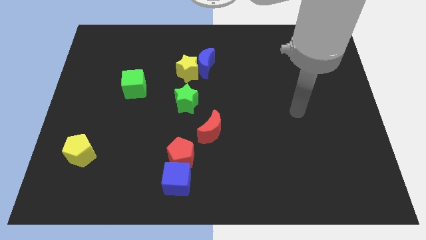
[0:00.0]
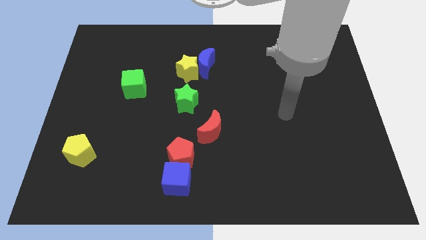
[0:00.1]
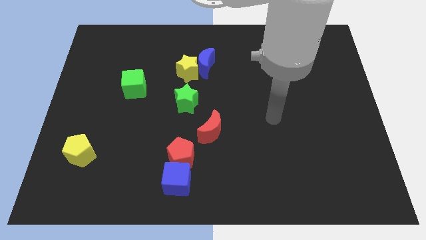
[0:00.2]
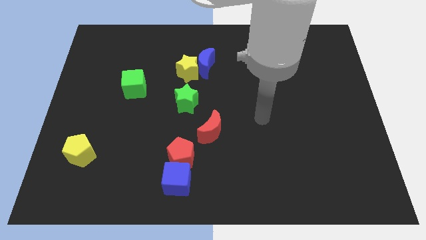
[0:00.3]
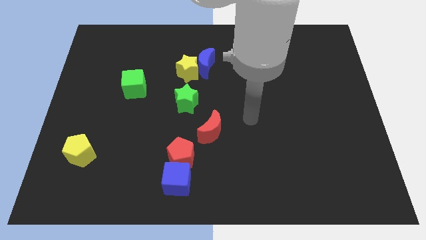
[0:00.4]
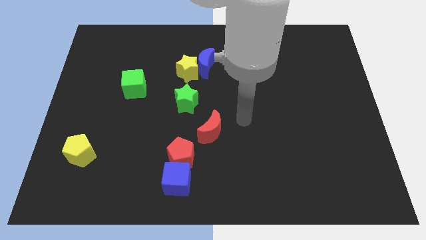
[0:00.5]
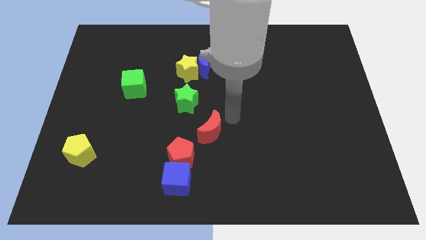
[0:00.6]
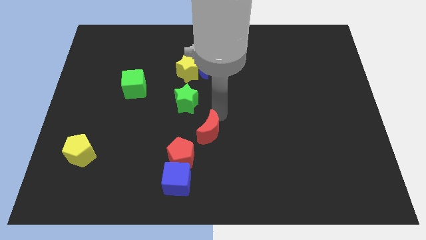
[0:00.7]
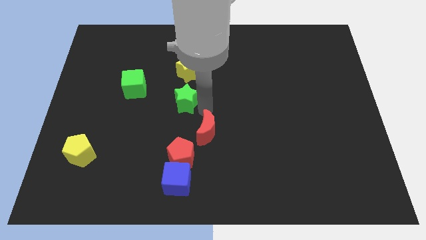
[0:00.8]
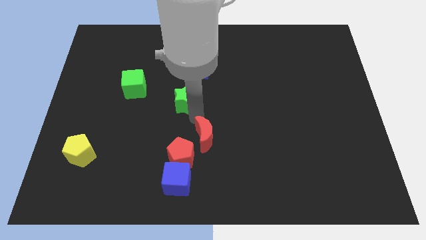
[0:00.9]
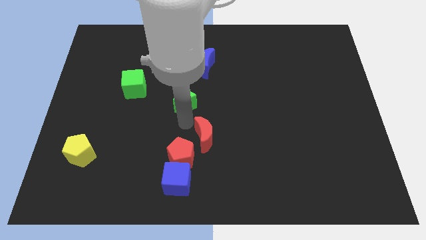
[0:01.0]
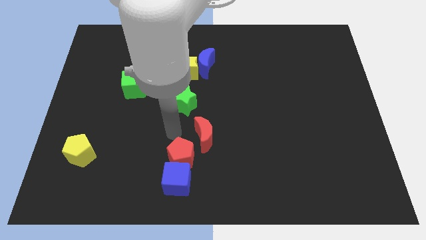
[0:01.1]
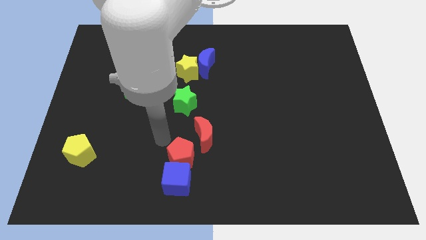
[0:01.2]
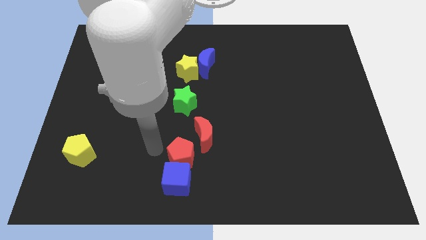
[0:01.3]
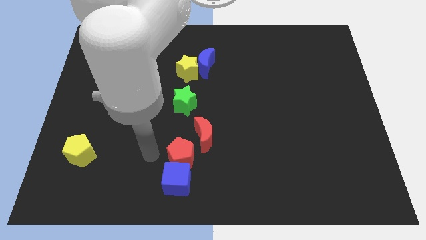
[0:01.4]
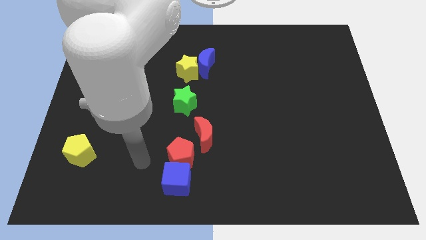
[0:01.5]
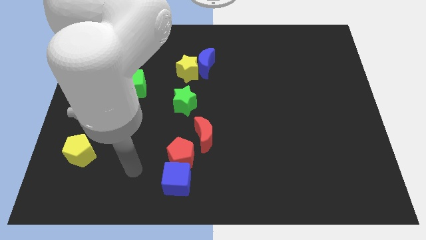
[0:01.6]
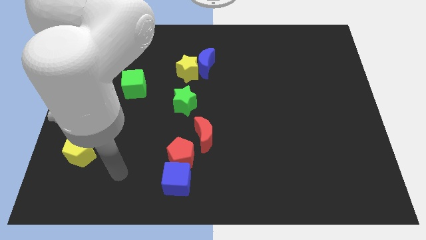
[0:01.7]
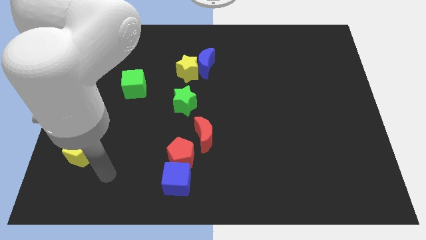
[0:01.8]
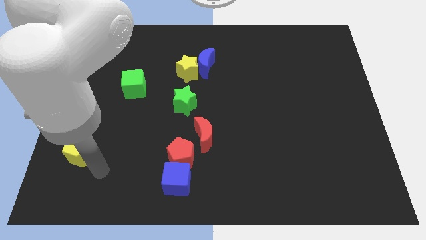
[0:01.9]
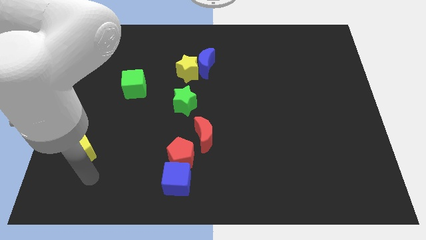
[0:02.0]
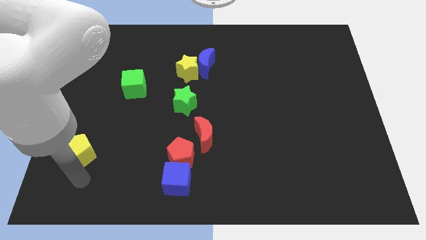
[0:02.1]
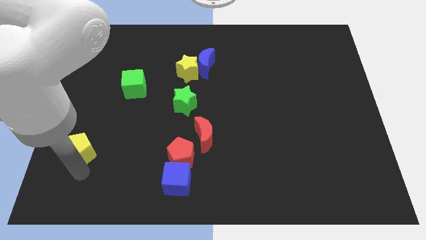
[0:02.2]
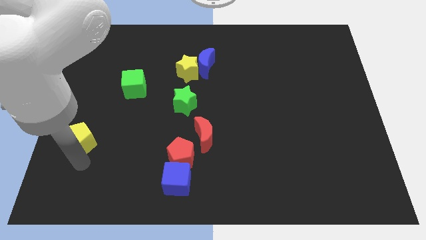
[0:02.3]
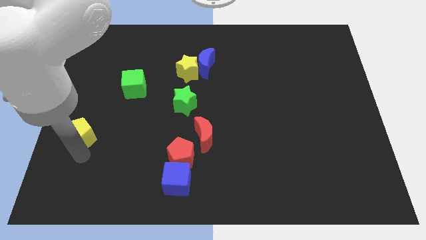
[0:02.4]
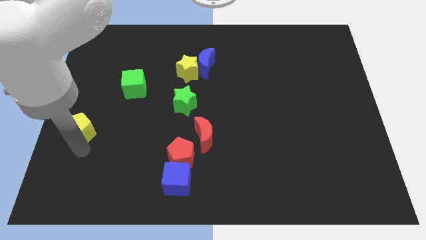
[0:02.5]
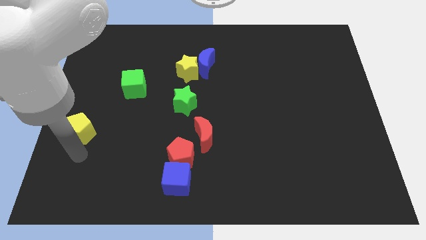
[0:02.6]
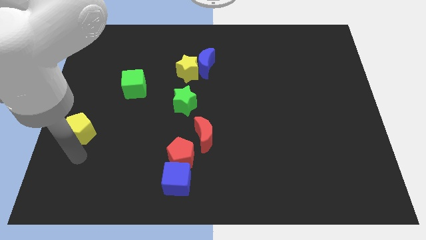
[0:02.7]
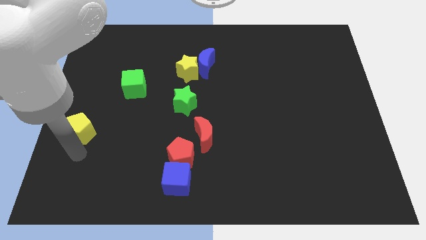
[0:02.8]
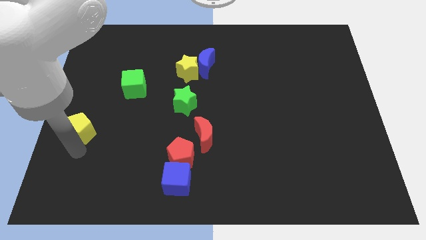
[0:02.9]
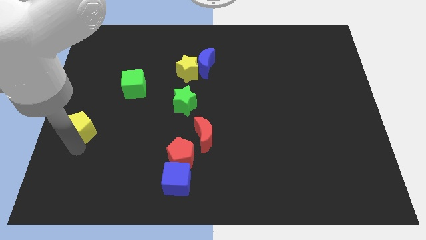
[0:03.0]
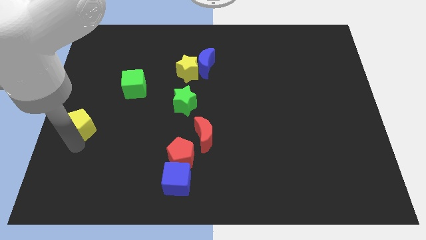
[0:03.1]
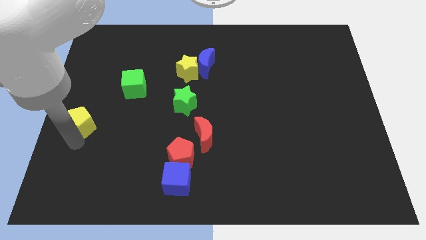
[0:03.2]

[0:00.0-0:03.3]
slide the yellow pentagon a bit up

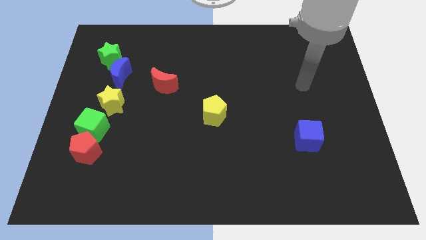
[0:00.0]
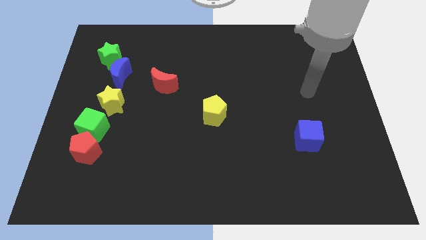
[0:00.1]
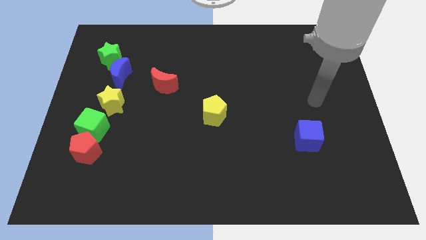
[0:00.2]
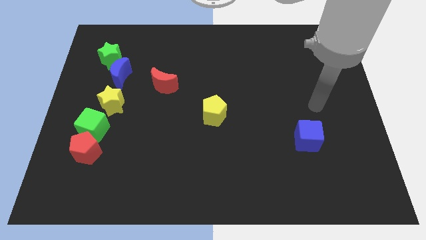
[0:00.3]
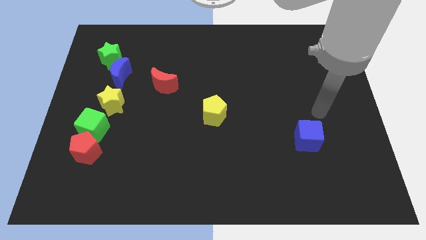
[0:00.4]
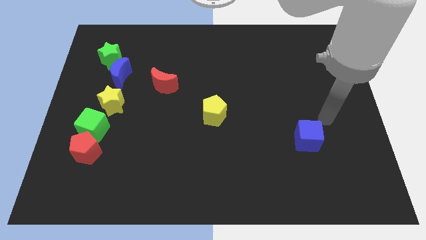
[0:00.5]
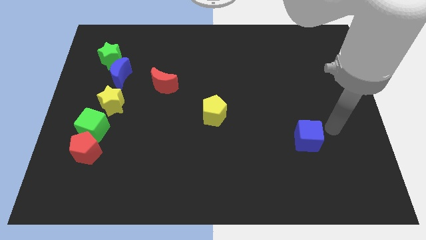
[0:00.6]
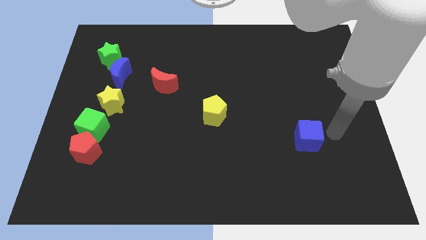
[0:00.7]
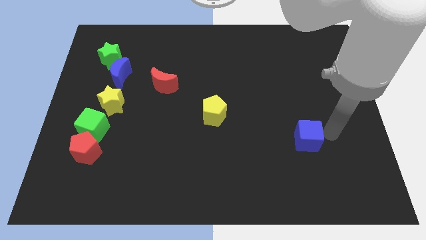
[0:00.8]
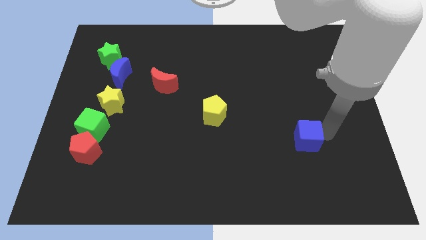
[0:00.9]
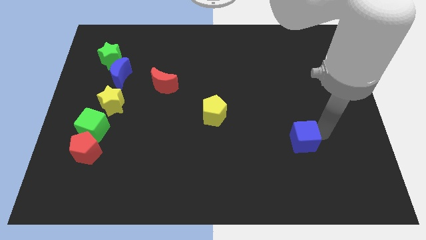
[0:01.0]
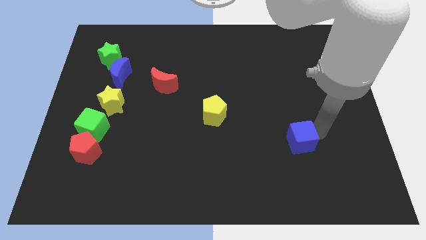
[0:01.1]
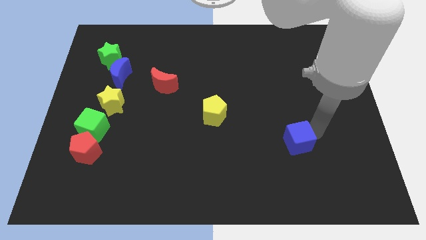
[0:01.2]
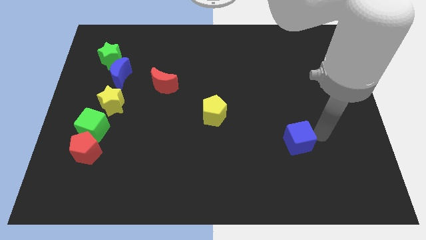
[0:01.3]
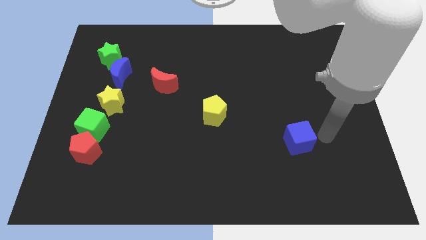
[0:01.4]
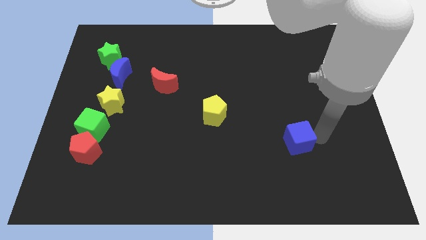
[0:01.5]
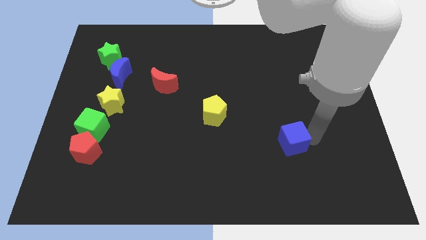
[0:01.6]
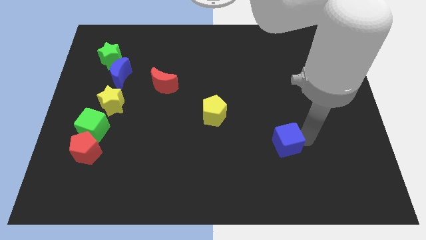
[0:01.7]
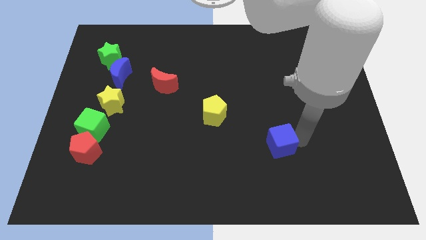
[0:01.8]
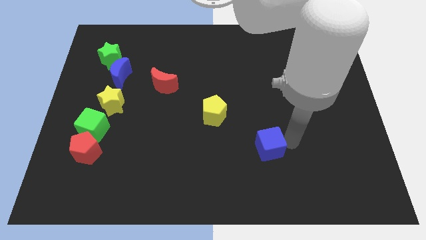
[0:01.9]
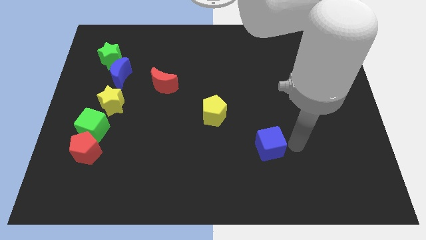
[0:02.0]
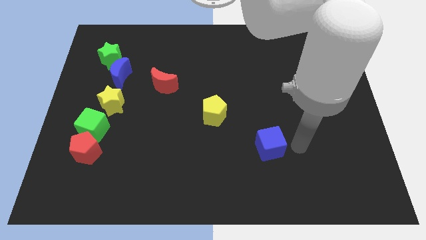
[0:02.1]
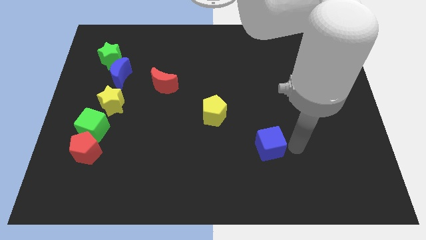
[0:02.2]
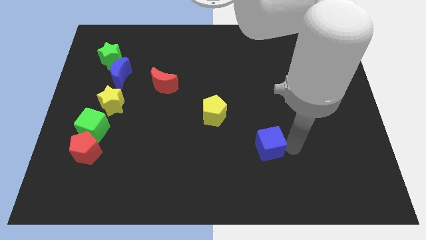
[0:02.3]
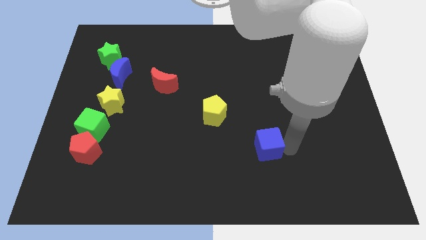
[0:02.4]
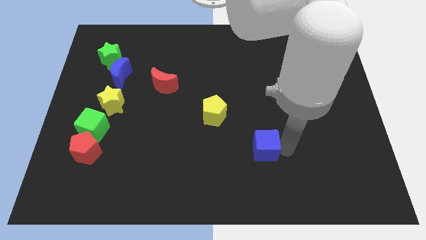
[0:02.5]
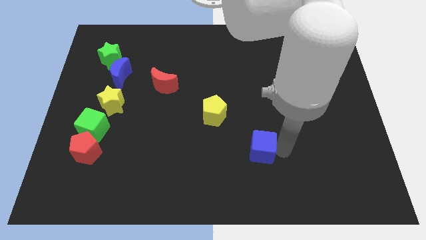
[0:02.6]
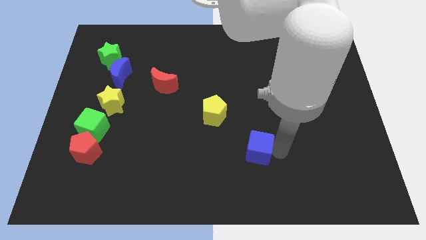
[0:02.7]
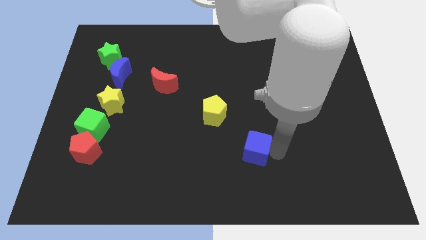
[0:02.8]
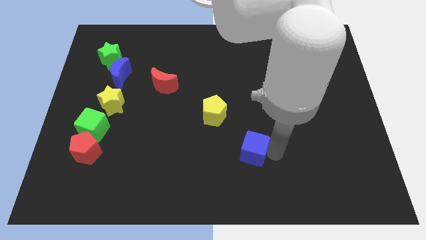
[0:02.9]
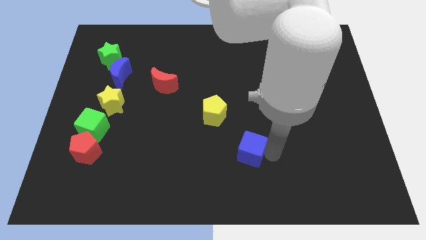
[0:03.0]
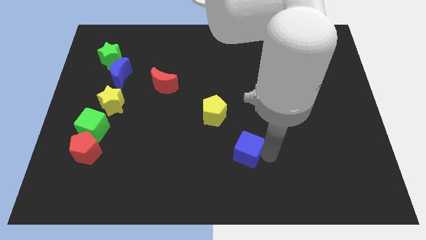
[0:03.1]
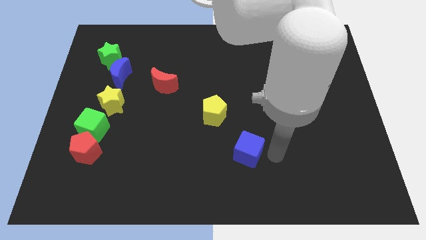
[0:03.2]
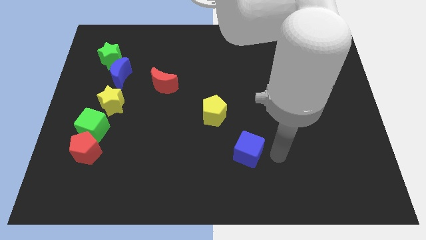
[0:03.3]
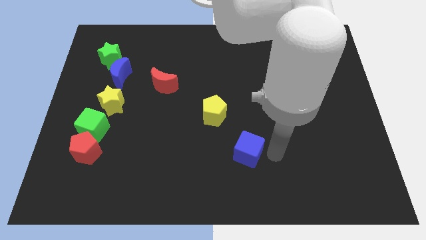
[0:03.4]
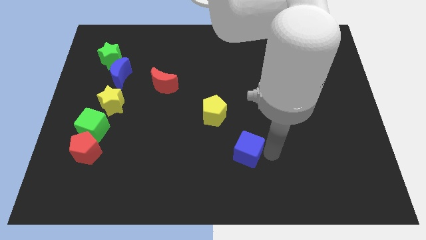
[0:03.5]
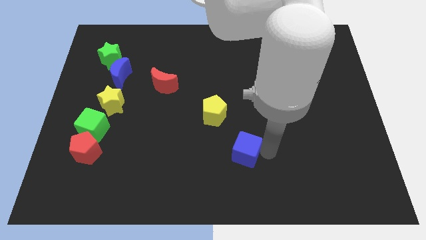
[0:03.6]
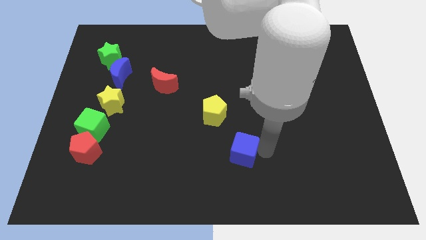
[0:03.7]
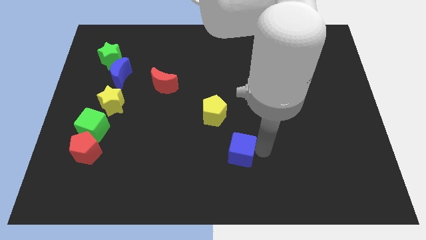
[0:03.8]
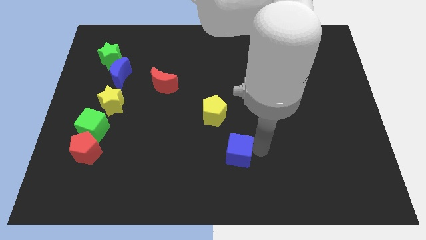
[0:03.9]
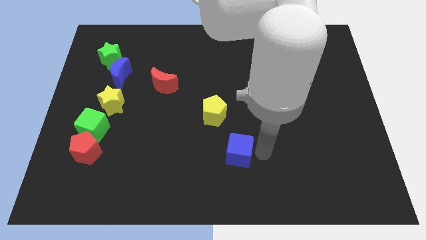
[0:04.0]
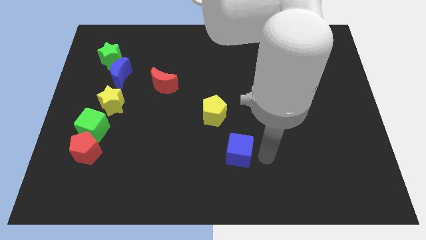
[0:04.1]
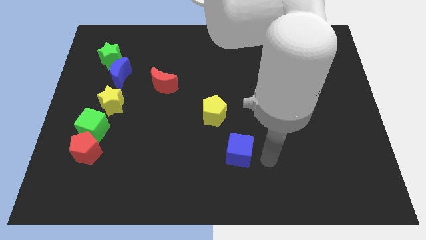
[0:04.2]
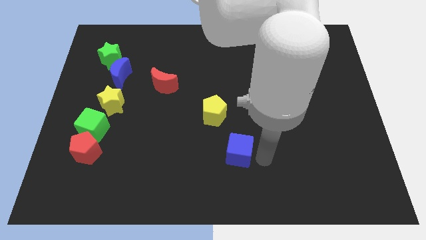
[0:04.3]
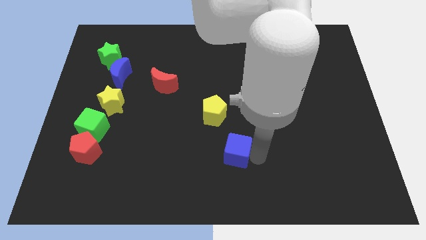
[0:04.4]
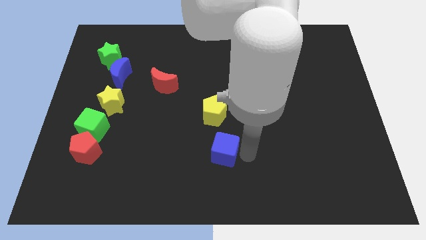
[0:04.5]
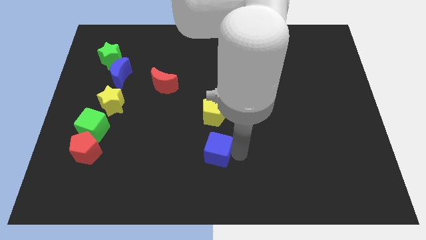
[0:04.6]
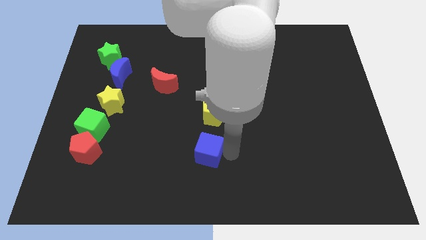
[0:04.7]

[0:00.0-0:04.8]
move the blue cube left
